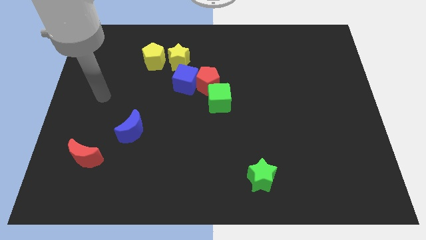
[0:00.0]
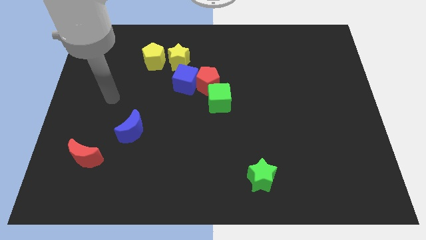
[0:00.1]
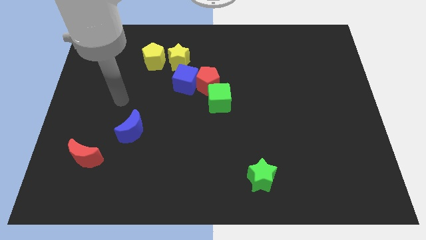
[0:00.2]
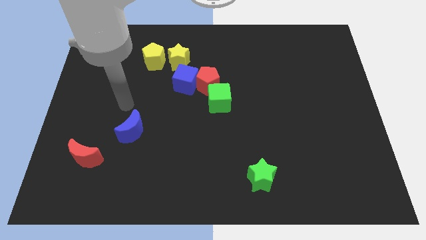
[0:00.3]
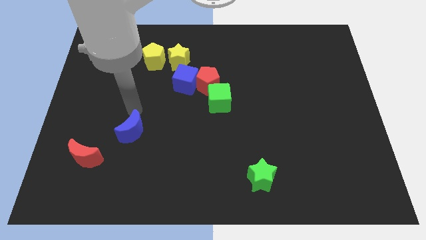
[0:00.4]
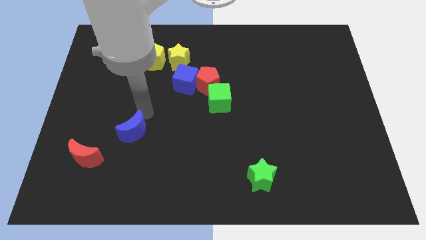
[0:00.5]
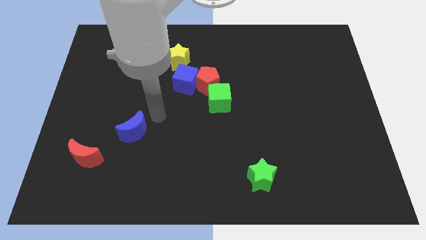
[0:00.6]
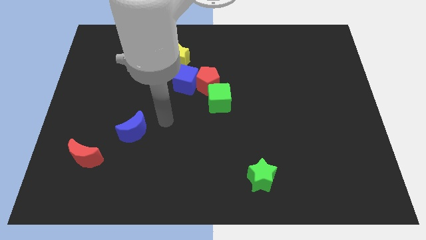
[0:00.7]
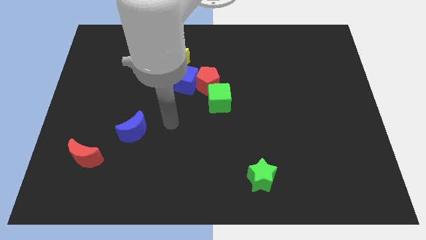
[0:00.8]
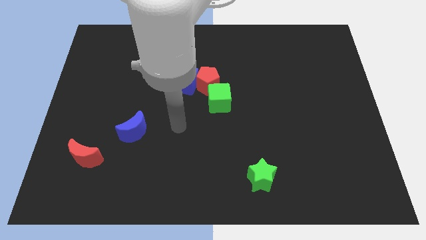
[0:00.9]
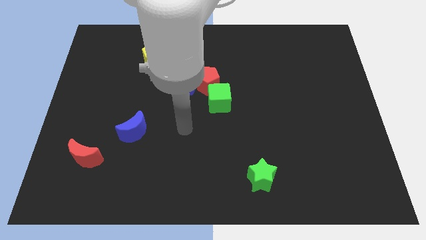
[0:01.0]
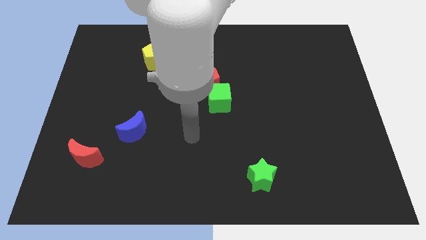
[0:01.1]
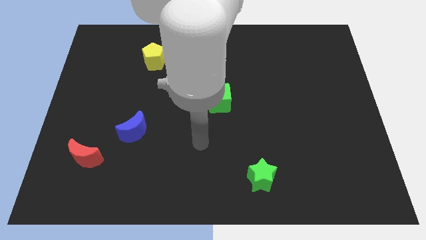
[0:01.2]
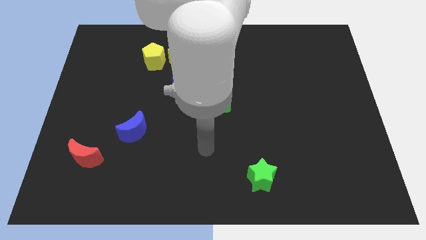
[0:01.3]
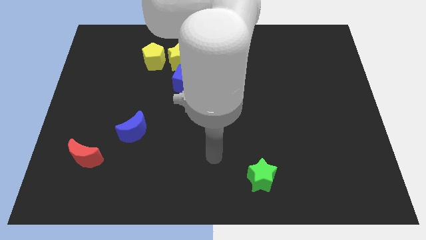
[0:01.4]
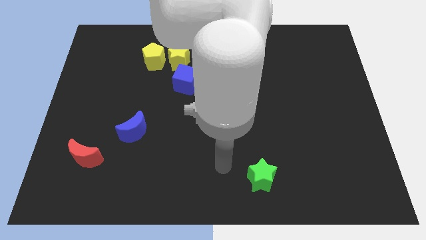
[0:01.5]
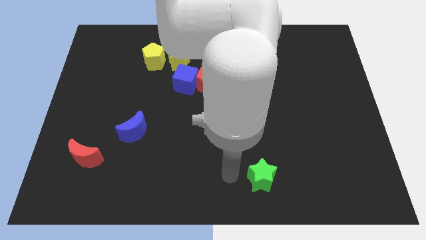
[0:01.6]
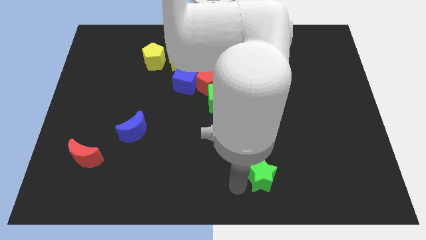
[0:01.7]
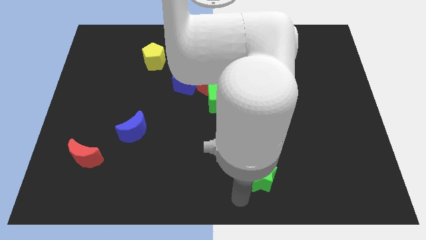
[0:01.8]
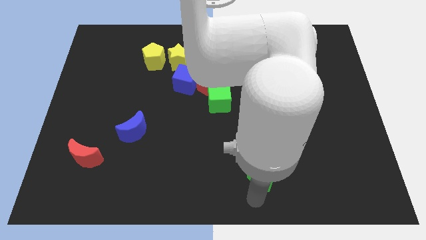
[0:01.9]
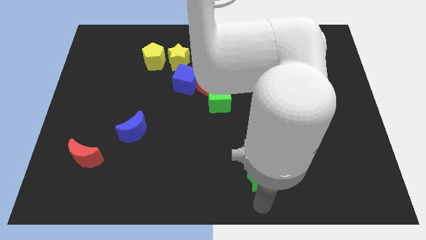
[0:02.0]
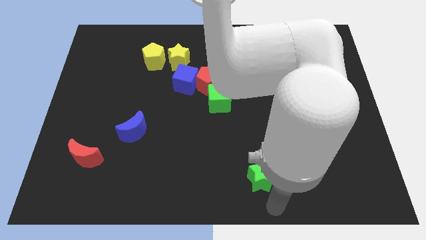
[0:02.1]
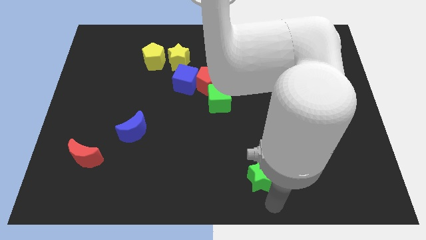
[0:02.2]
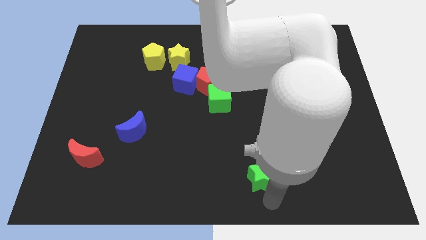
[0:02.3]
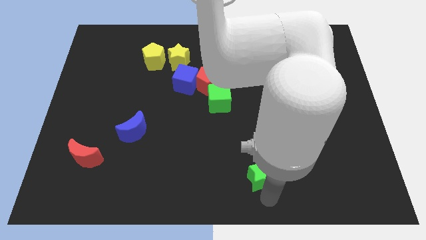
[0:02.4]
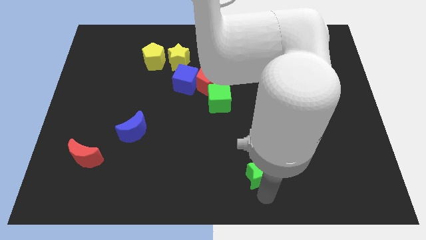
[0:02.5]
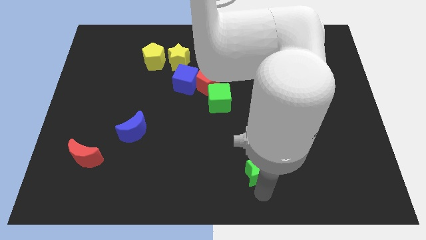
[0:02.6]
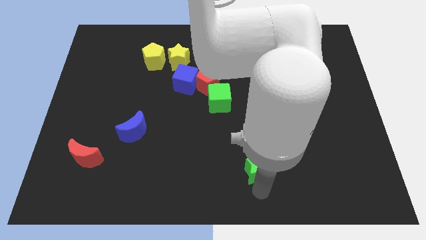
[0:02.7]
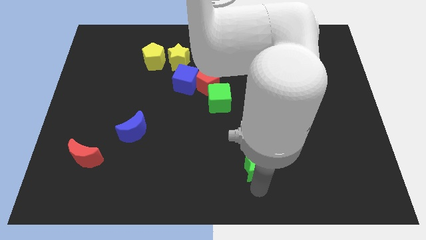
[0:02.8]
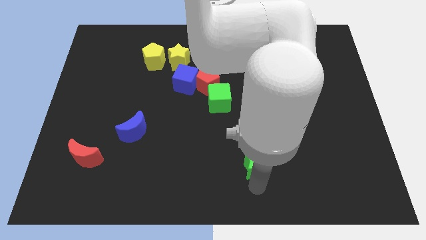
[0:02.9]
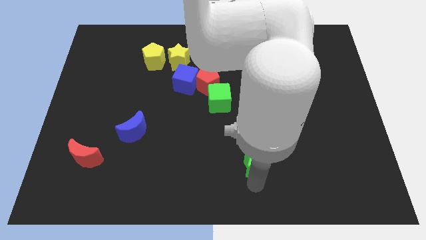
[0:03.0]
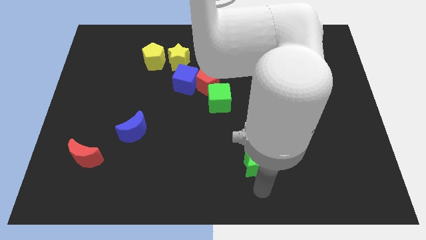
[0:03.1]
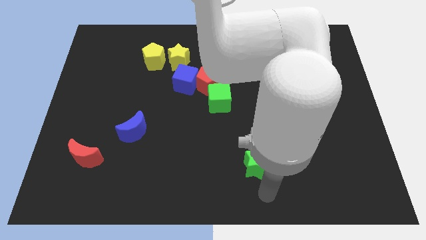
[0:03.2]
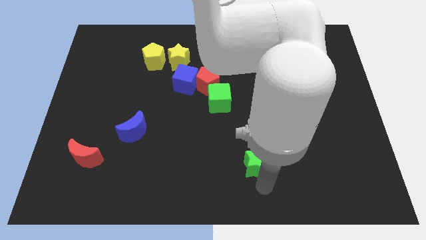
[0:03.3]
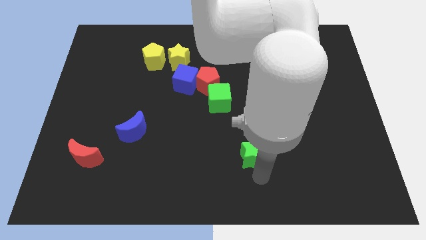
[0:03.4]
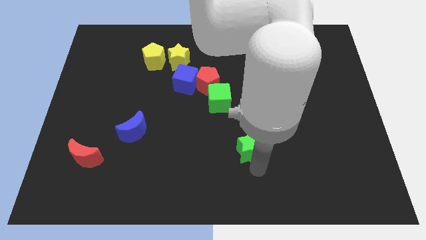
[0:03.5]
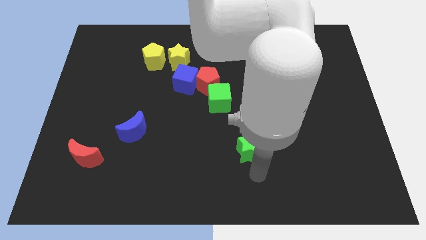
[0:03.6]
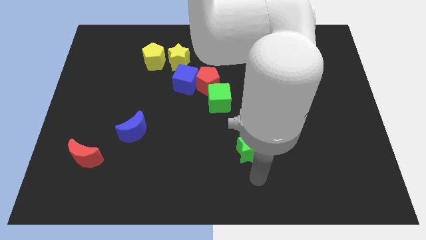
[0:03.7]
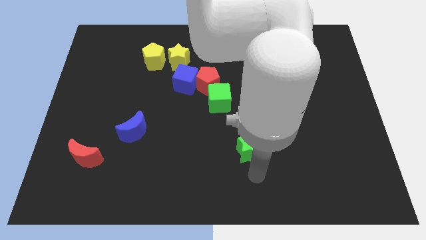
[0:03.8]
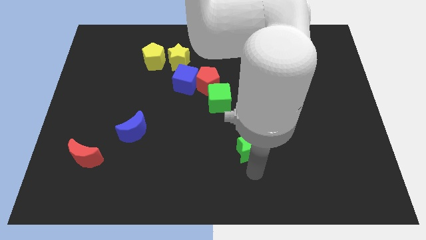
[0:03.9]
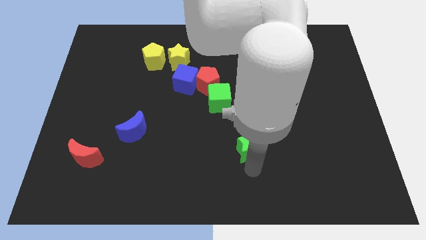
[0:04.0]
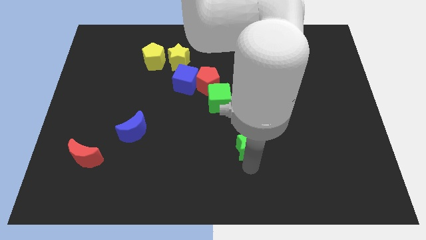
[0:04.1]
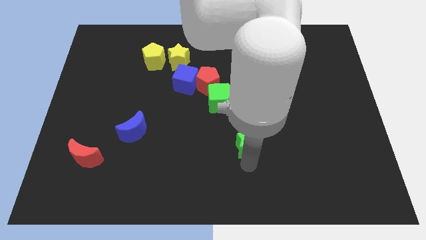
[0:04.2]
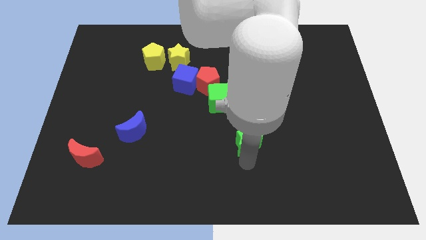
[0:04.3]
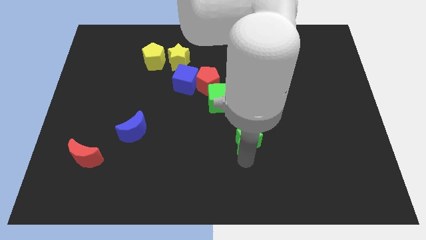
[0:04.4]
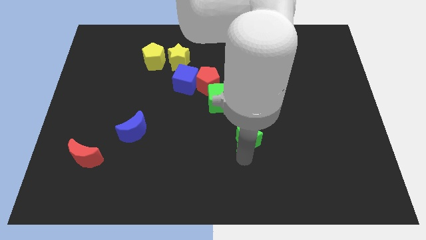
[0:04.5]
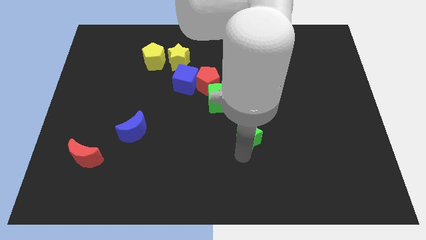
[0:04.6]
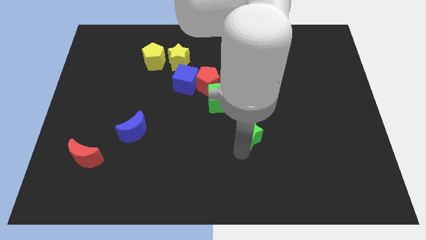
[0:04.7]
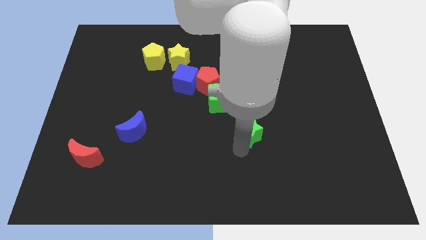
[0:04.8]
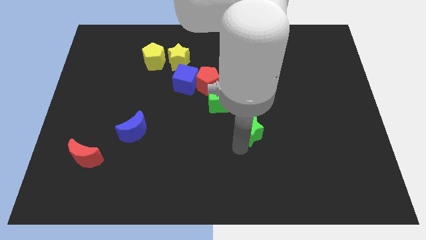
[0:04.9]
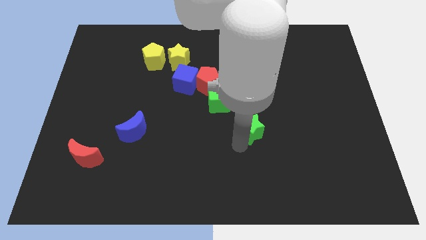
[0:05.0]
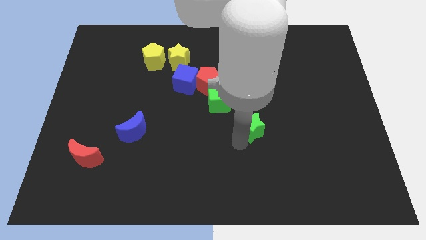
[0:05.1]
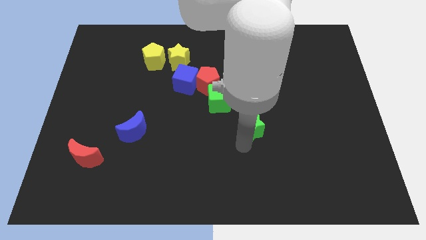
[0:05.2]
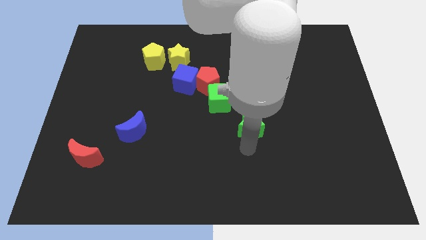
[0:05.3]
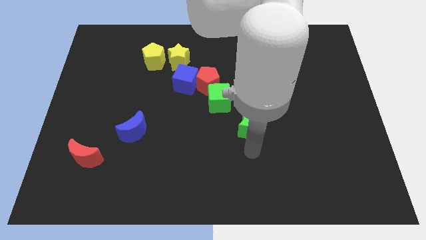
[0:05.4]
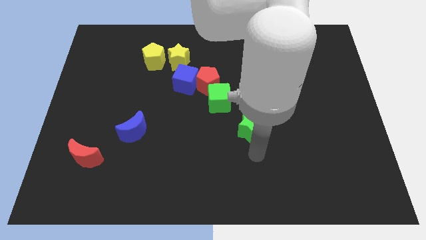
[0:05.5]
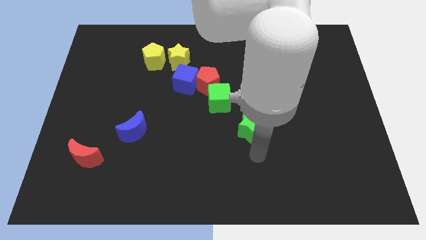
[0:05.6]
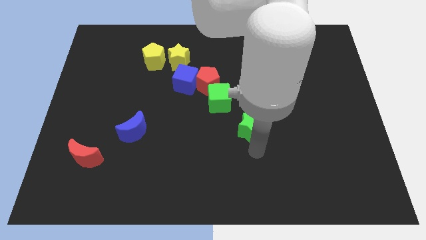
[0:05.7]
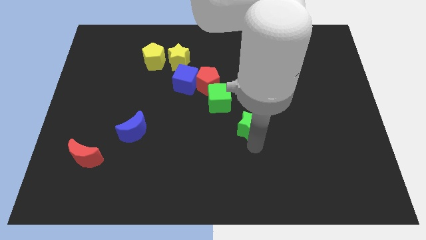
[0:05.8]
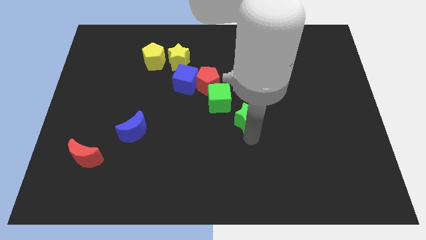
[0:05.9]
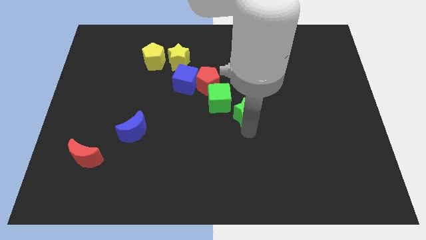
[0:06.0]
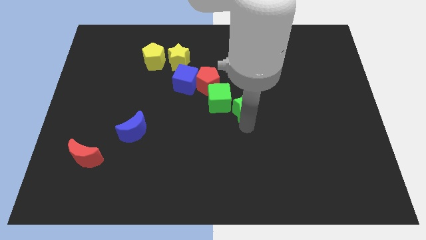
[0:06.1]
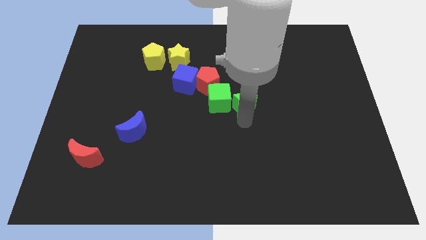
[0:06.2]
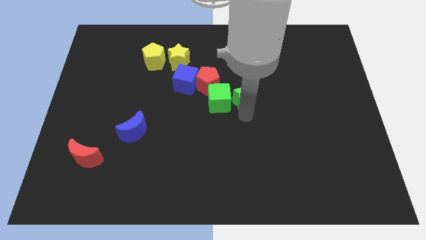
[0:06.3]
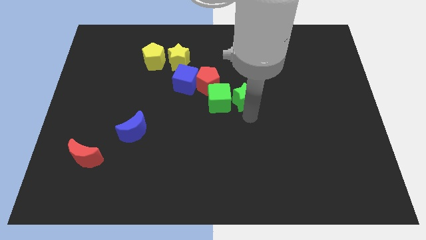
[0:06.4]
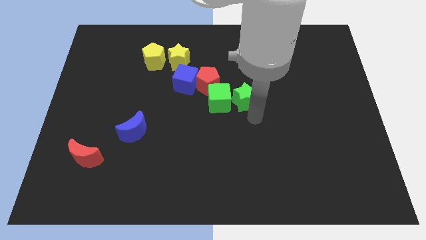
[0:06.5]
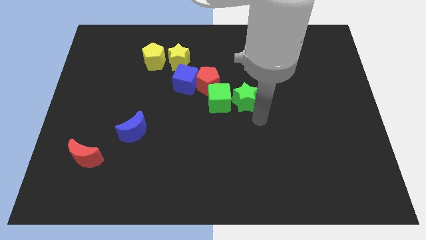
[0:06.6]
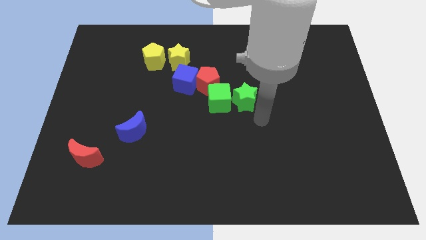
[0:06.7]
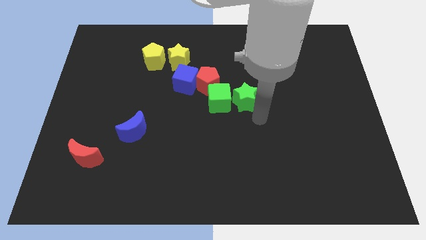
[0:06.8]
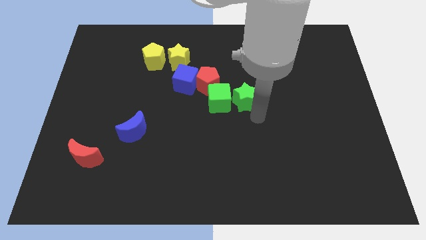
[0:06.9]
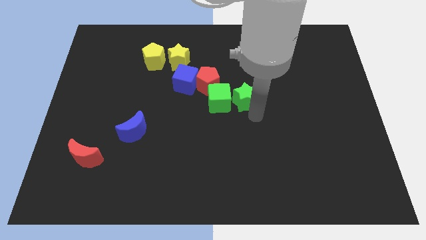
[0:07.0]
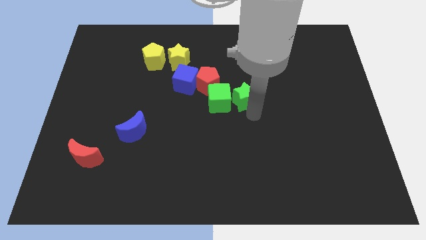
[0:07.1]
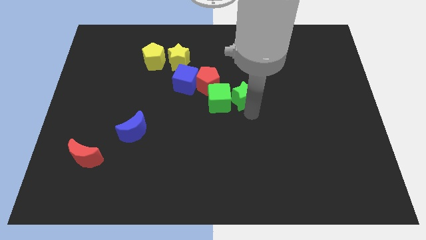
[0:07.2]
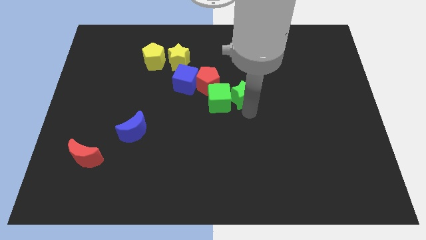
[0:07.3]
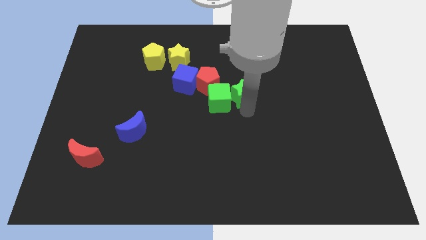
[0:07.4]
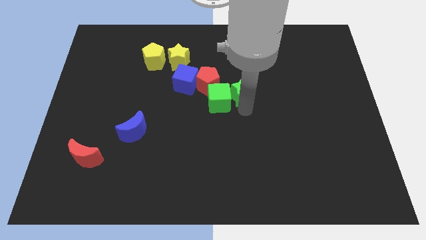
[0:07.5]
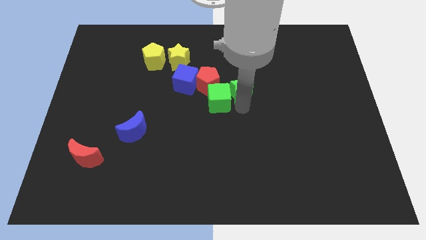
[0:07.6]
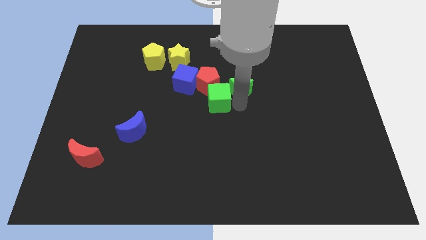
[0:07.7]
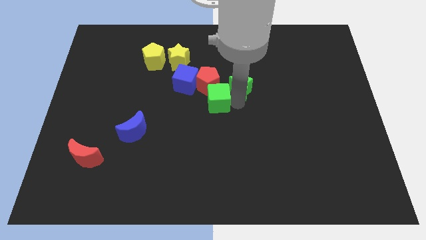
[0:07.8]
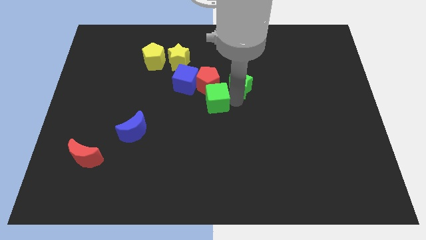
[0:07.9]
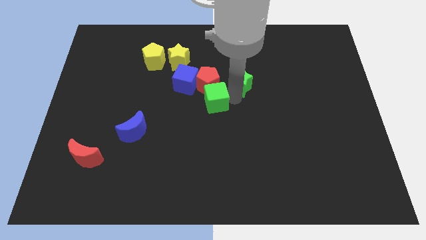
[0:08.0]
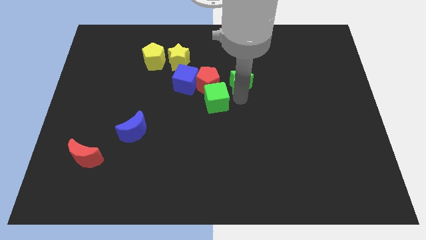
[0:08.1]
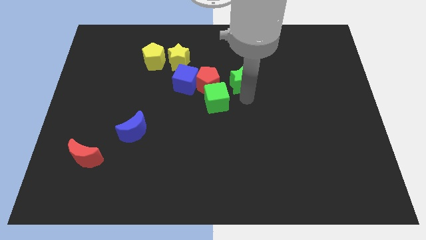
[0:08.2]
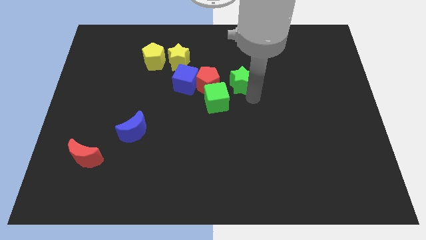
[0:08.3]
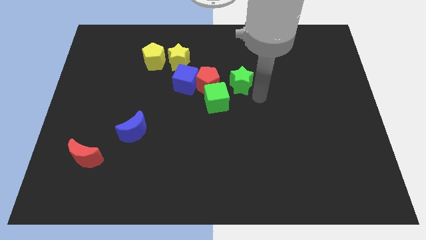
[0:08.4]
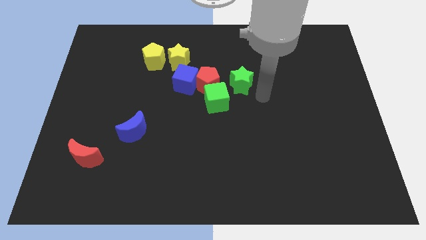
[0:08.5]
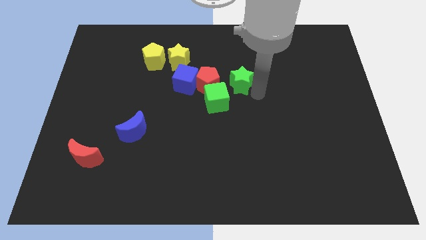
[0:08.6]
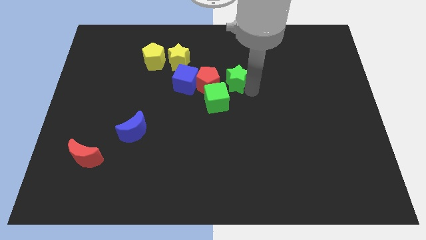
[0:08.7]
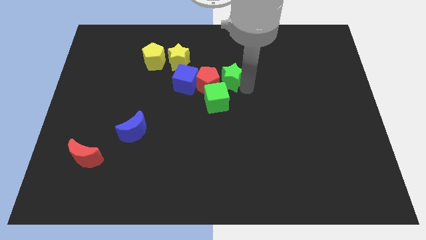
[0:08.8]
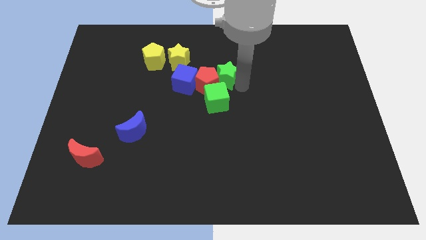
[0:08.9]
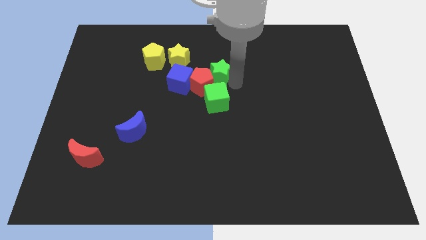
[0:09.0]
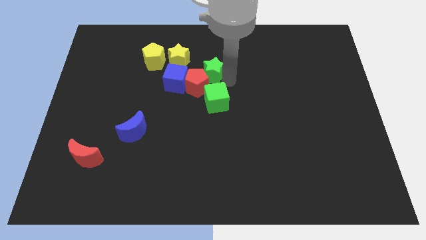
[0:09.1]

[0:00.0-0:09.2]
push the green star diagonally up and to the right of the blue cube
